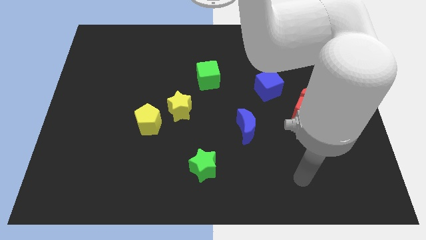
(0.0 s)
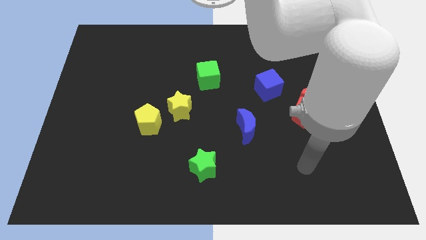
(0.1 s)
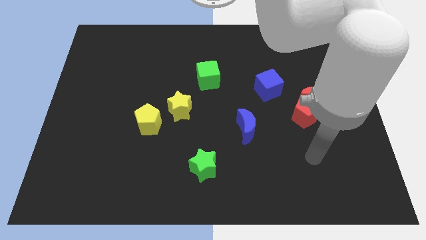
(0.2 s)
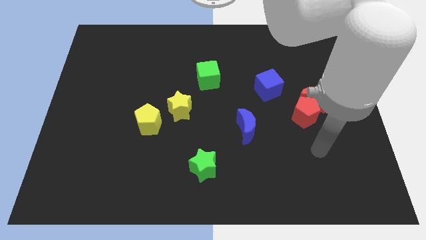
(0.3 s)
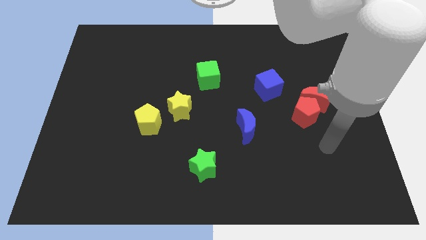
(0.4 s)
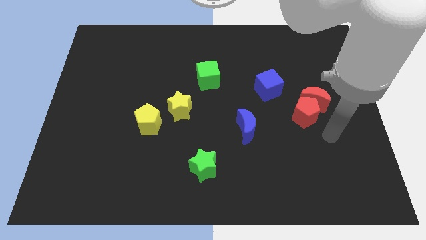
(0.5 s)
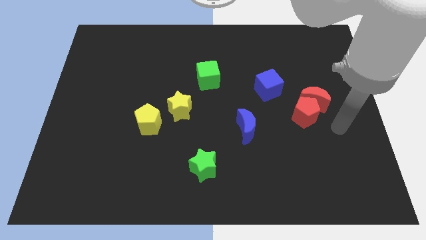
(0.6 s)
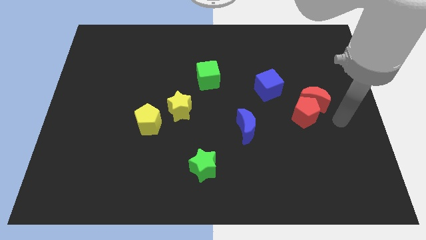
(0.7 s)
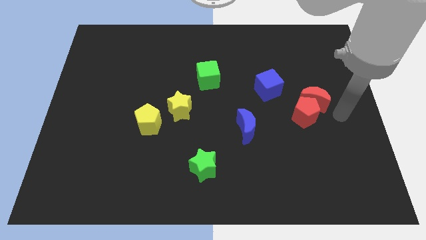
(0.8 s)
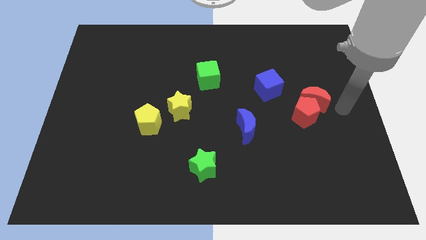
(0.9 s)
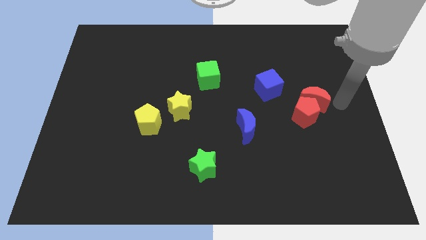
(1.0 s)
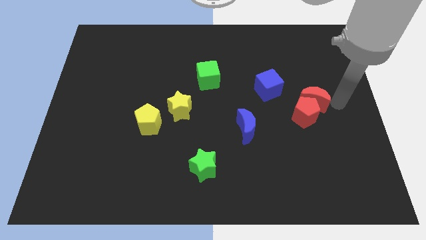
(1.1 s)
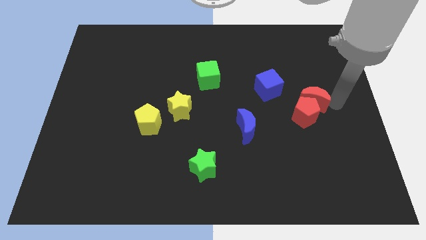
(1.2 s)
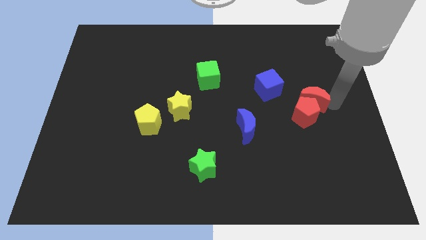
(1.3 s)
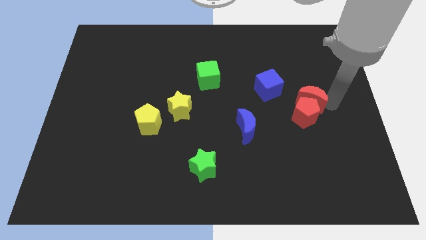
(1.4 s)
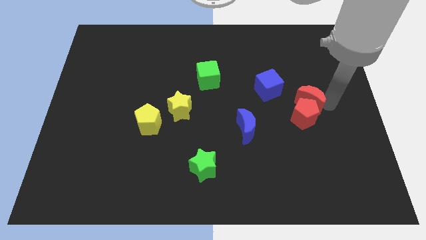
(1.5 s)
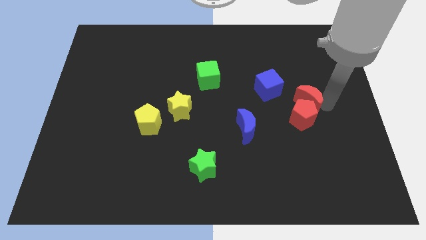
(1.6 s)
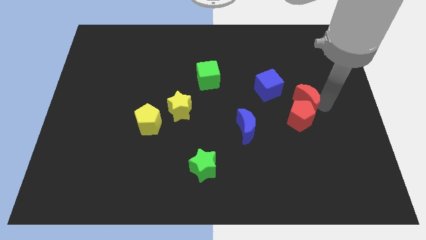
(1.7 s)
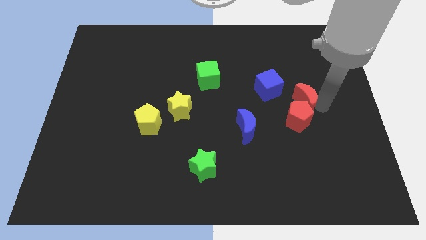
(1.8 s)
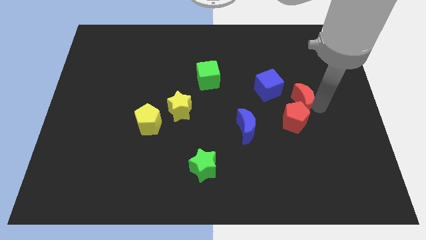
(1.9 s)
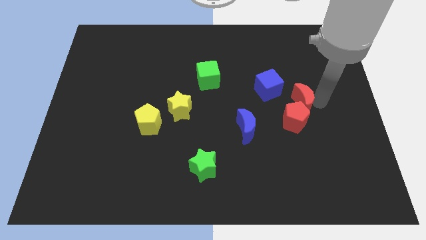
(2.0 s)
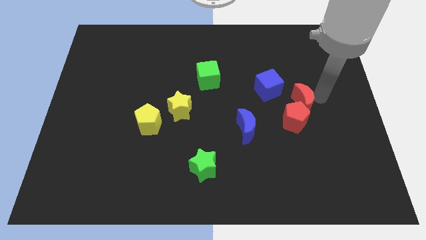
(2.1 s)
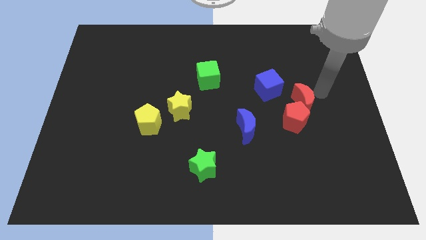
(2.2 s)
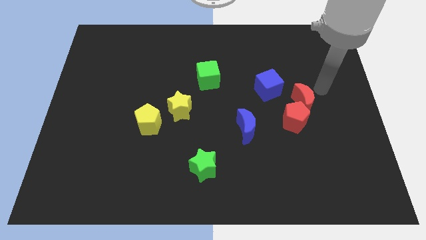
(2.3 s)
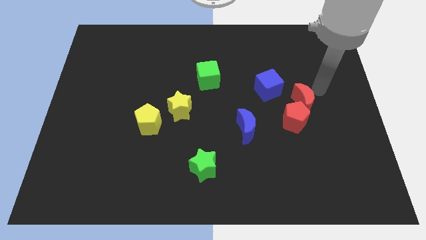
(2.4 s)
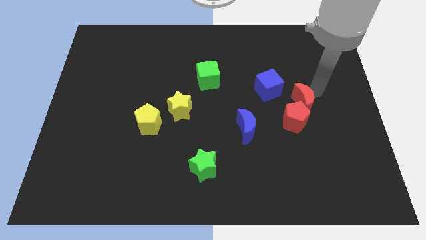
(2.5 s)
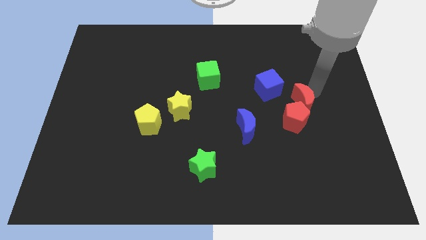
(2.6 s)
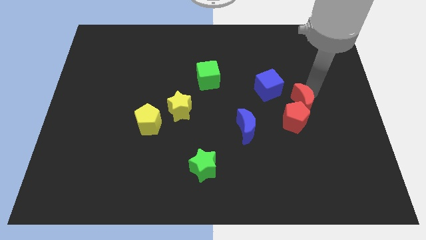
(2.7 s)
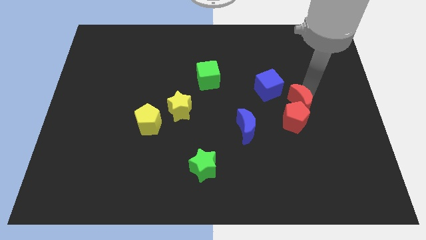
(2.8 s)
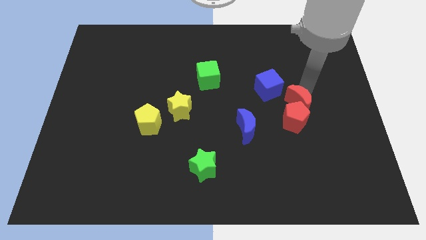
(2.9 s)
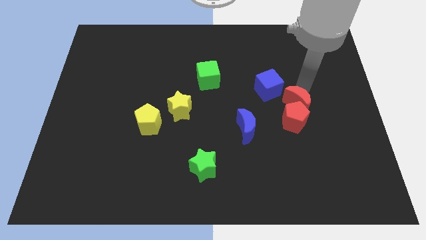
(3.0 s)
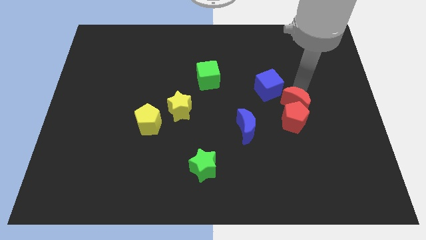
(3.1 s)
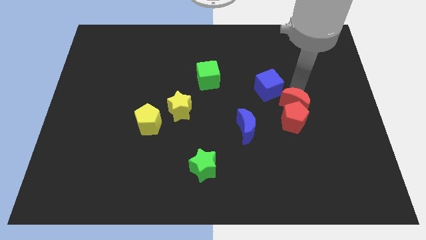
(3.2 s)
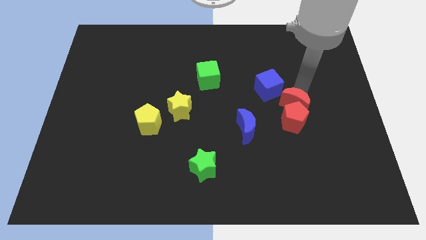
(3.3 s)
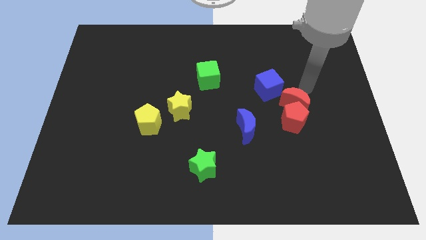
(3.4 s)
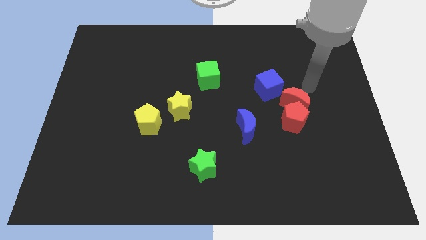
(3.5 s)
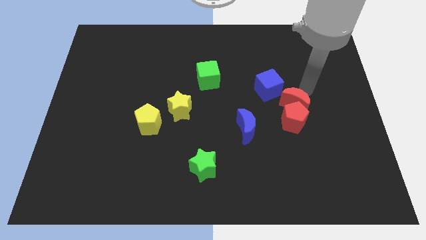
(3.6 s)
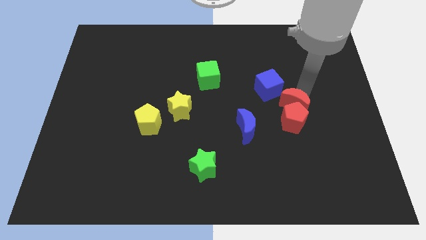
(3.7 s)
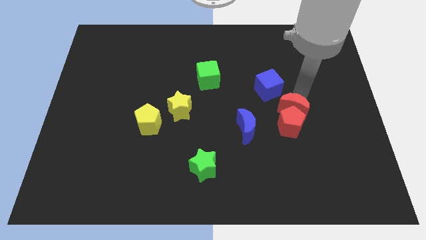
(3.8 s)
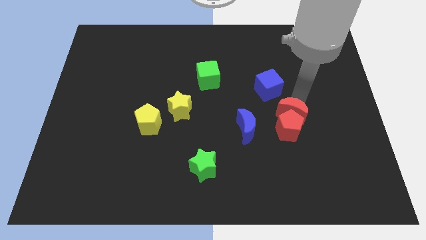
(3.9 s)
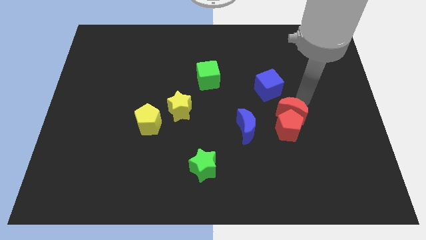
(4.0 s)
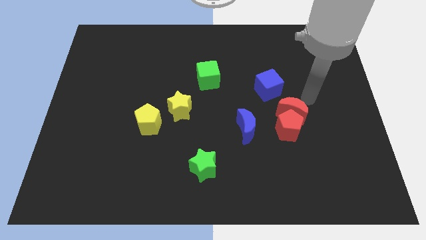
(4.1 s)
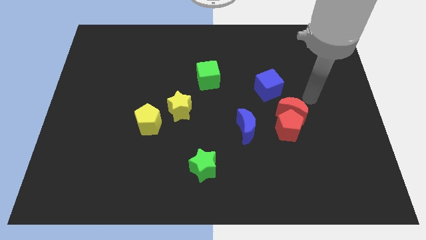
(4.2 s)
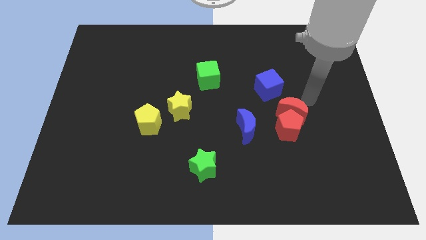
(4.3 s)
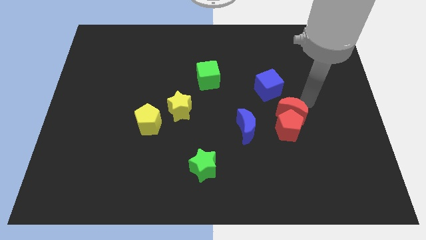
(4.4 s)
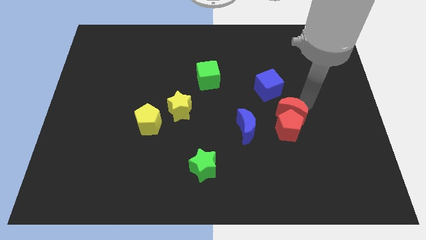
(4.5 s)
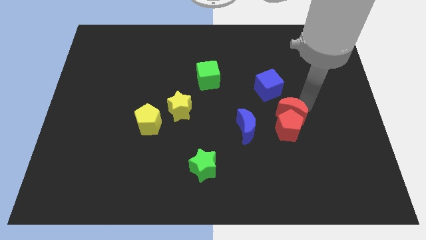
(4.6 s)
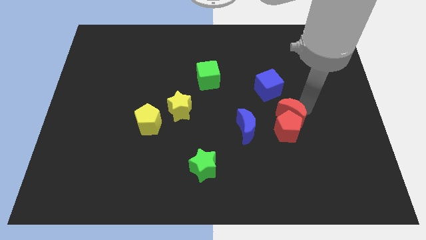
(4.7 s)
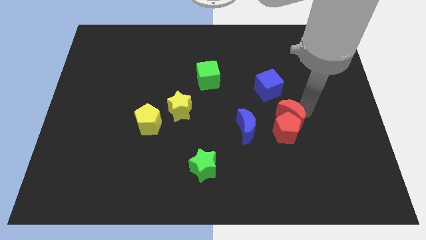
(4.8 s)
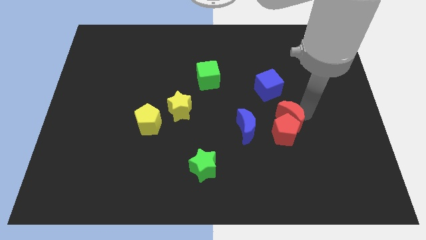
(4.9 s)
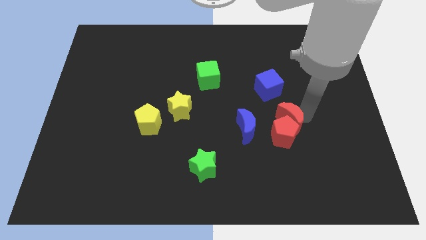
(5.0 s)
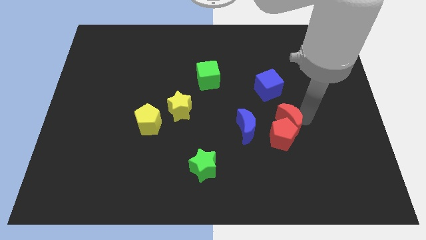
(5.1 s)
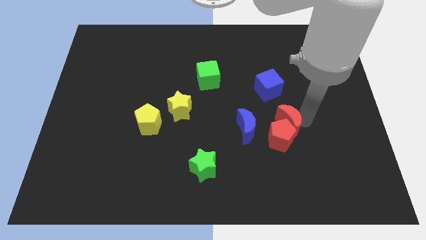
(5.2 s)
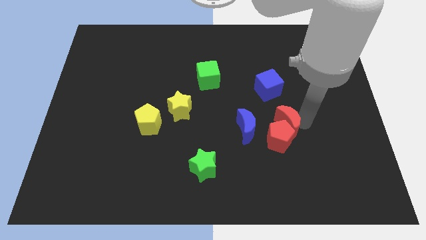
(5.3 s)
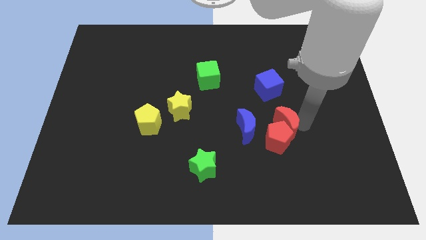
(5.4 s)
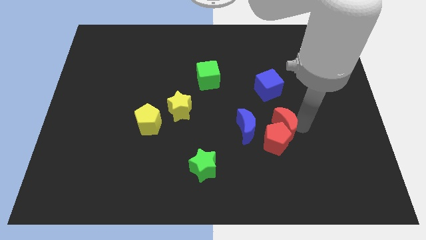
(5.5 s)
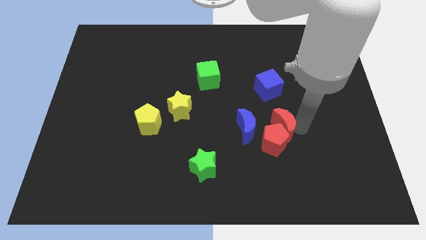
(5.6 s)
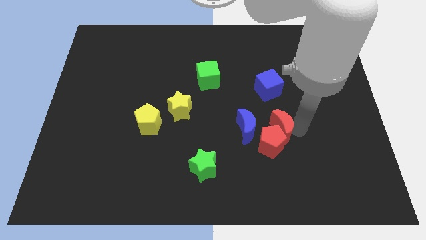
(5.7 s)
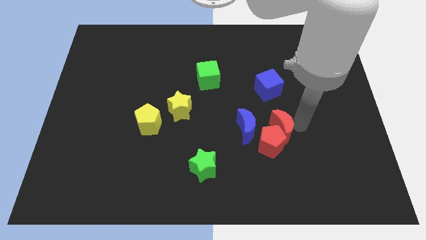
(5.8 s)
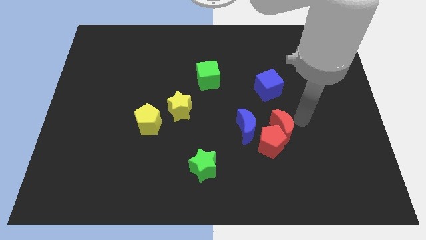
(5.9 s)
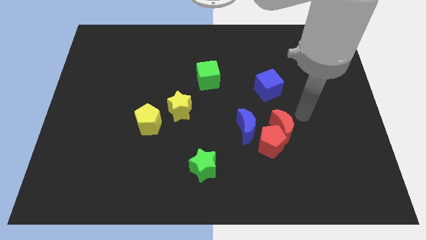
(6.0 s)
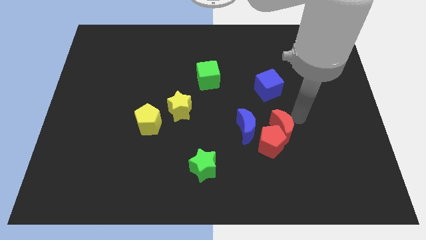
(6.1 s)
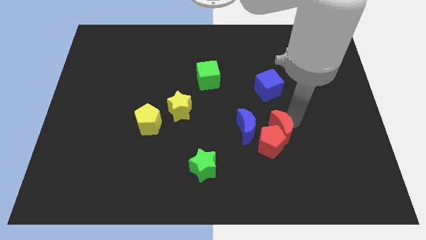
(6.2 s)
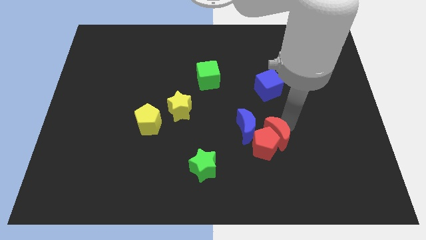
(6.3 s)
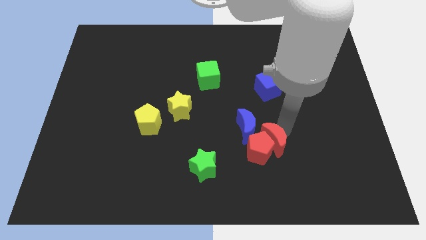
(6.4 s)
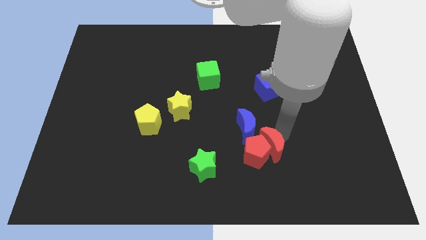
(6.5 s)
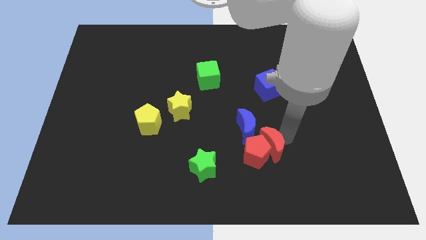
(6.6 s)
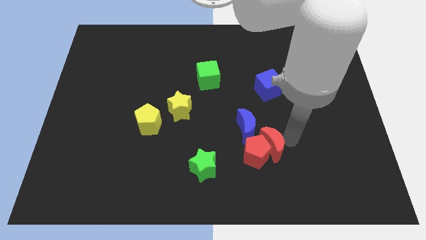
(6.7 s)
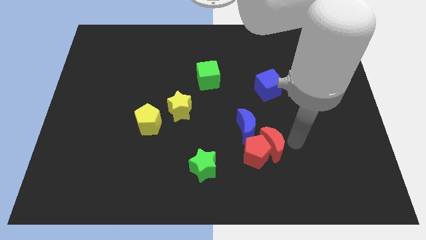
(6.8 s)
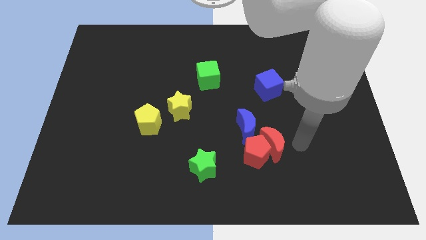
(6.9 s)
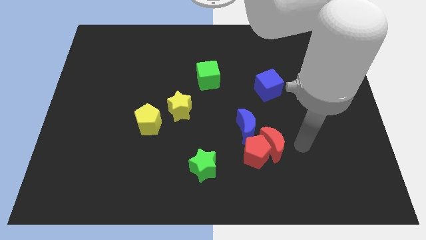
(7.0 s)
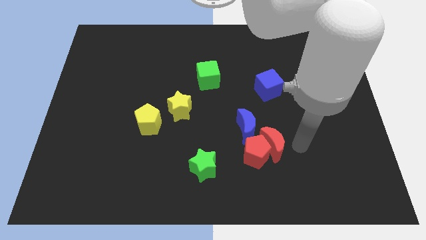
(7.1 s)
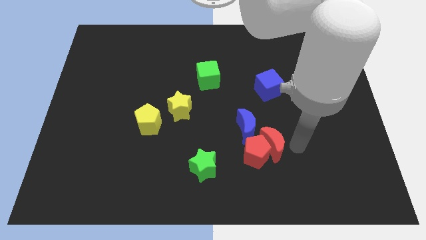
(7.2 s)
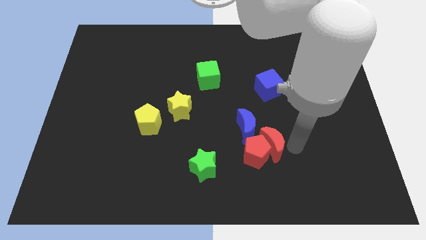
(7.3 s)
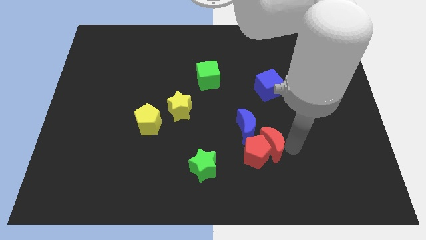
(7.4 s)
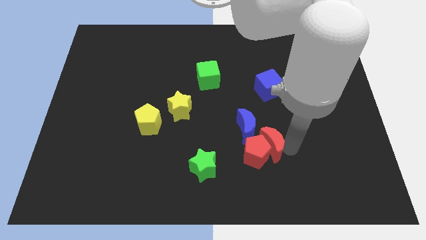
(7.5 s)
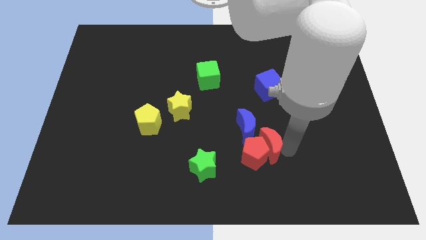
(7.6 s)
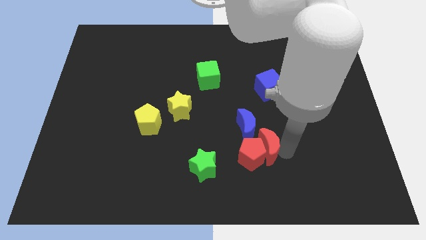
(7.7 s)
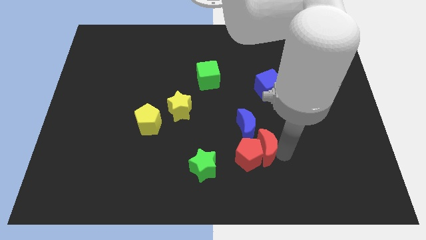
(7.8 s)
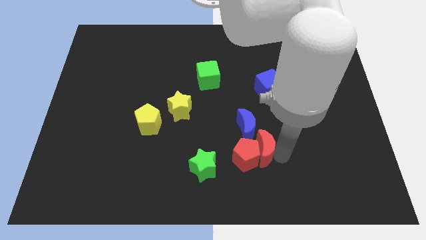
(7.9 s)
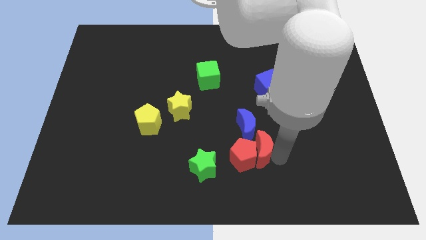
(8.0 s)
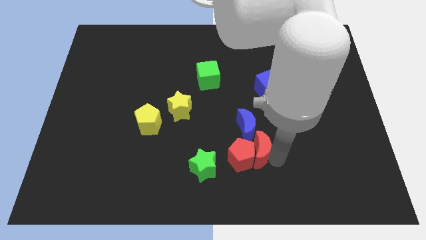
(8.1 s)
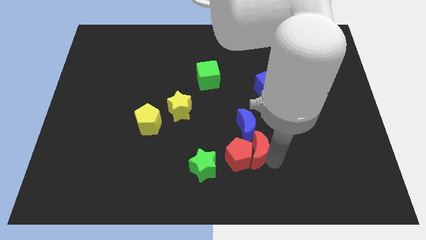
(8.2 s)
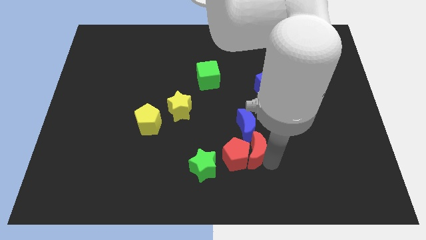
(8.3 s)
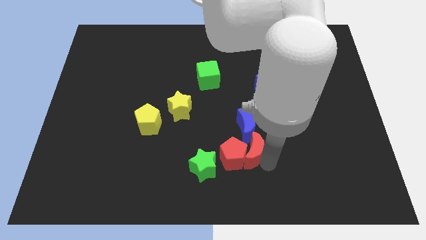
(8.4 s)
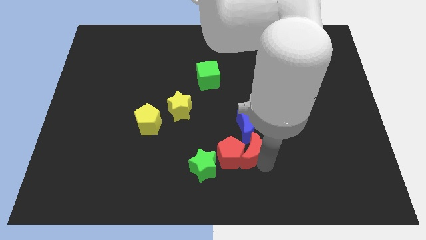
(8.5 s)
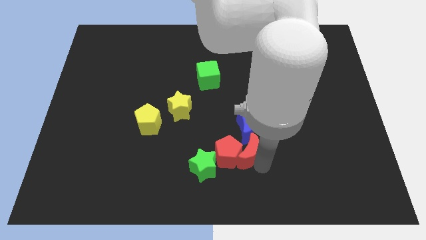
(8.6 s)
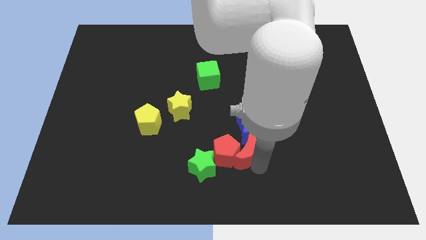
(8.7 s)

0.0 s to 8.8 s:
move the red moon diagonally up and to the right of the green star
